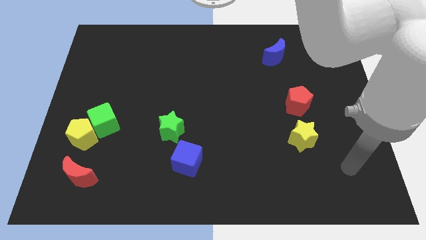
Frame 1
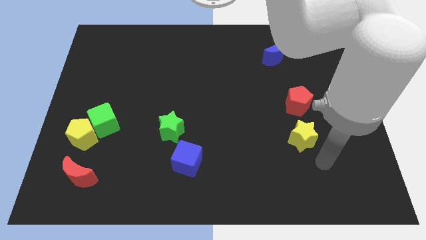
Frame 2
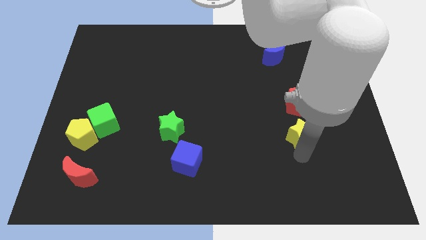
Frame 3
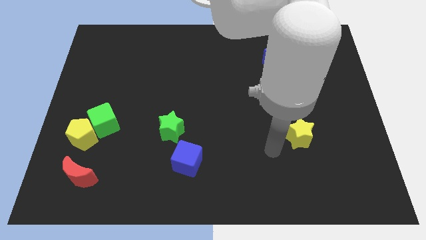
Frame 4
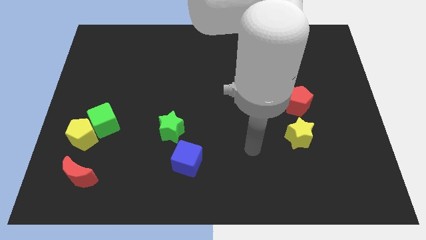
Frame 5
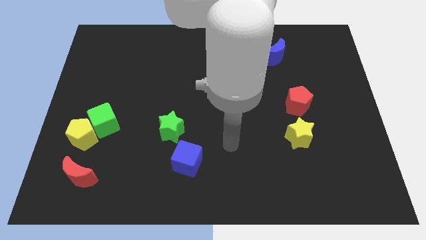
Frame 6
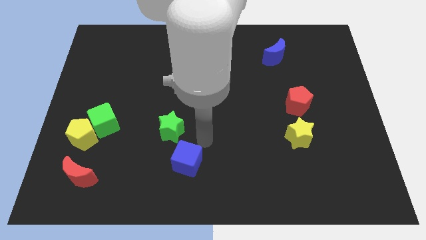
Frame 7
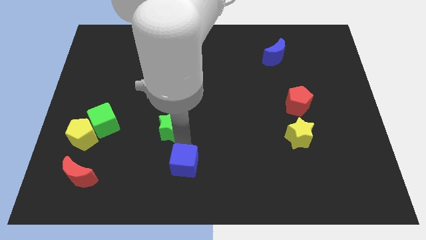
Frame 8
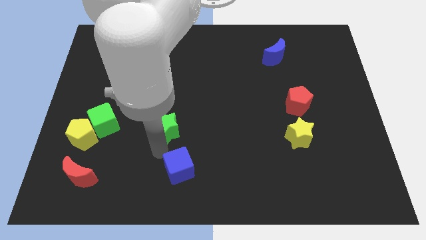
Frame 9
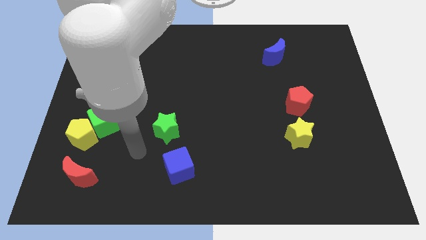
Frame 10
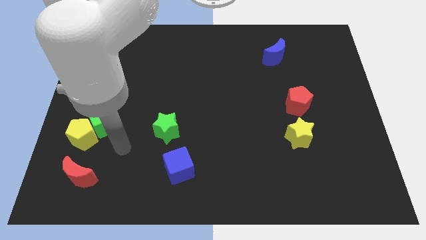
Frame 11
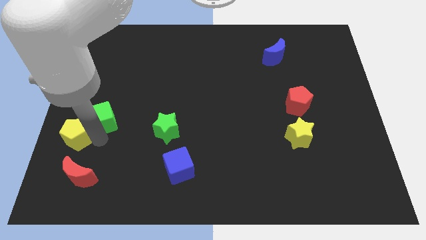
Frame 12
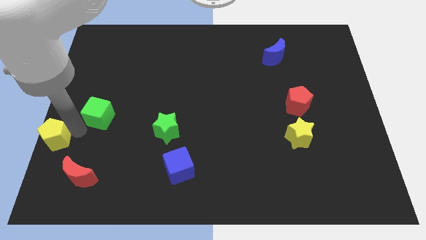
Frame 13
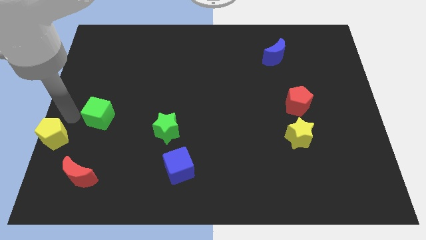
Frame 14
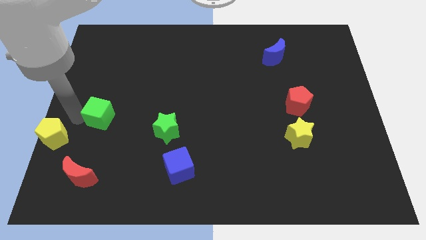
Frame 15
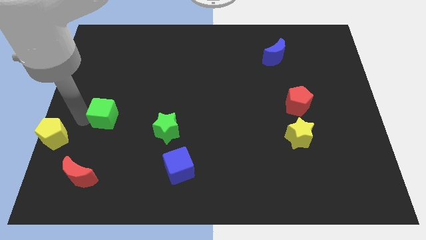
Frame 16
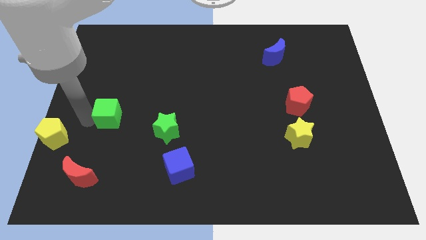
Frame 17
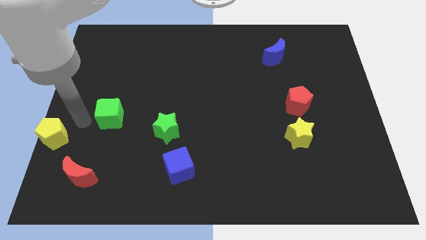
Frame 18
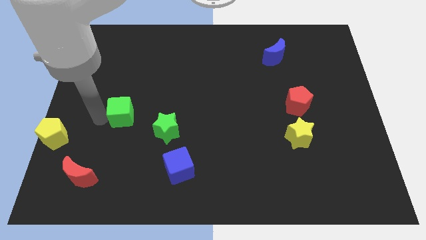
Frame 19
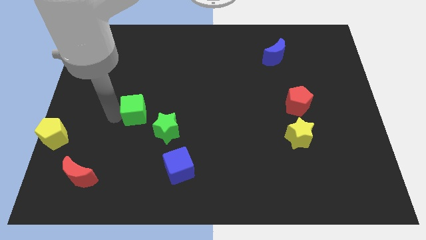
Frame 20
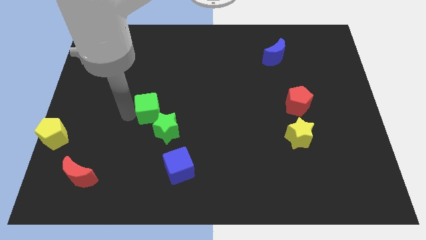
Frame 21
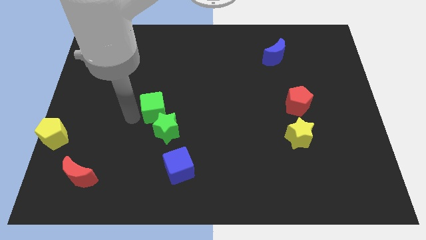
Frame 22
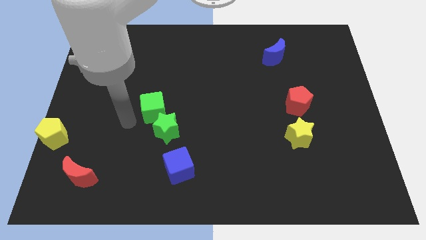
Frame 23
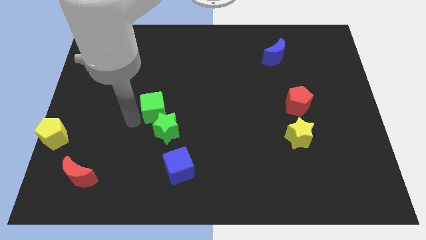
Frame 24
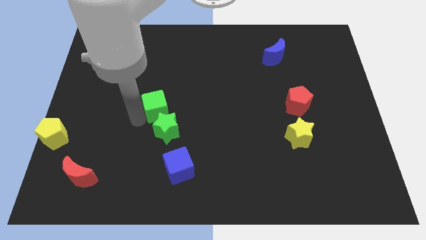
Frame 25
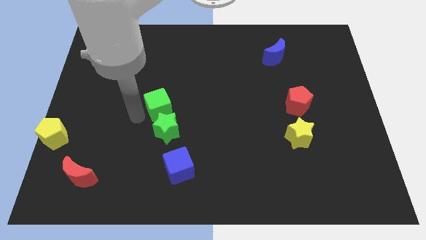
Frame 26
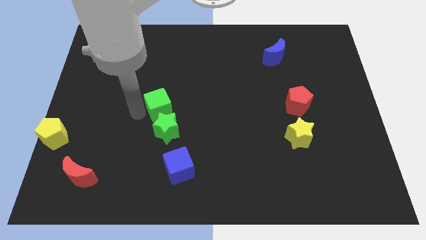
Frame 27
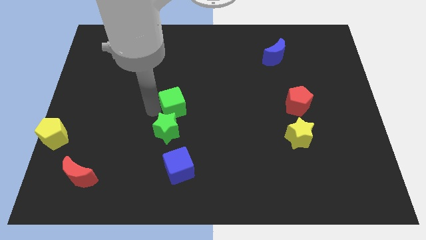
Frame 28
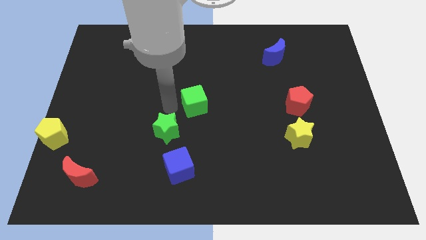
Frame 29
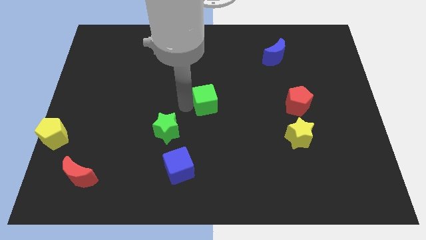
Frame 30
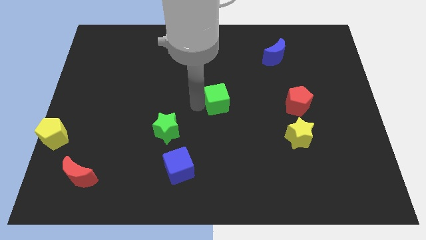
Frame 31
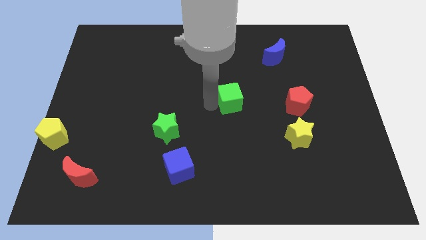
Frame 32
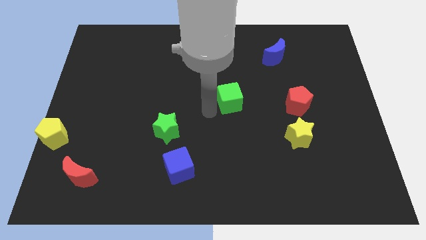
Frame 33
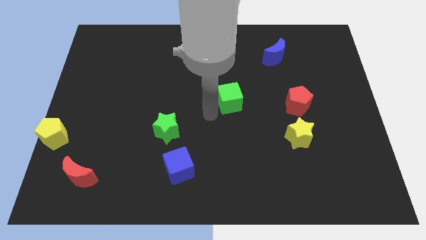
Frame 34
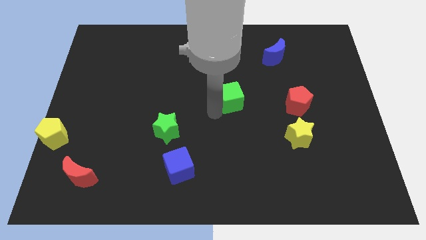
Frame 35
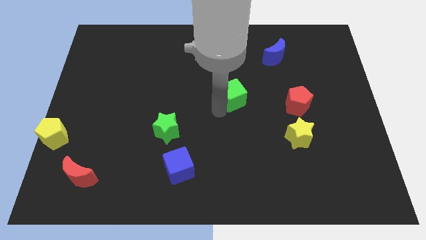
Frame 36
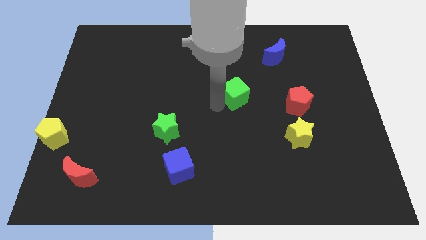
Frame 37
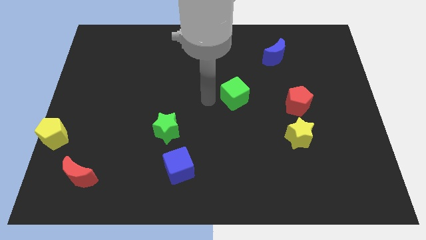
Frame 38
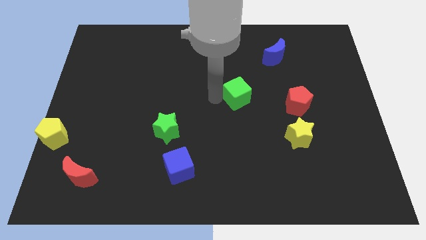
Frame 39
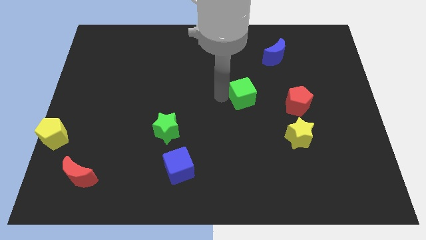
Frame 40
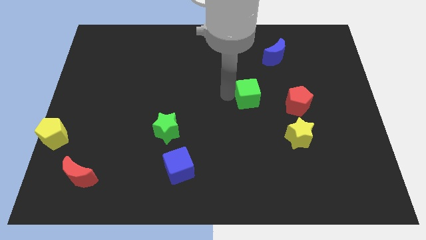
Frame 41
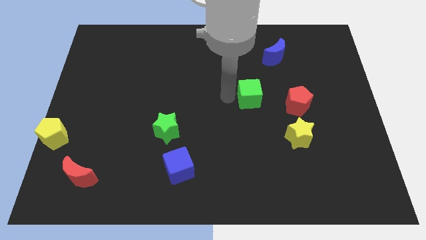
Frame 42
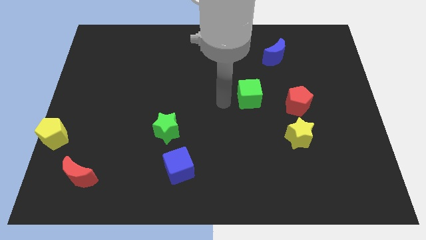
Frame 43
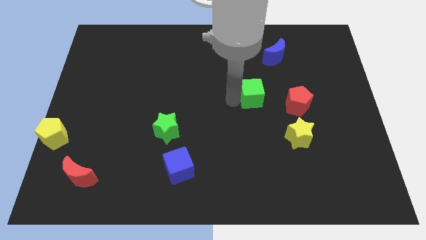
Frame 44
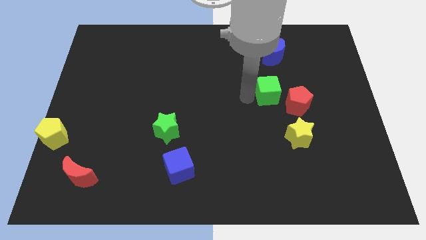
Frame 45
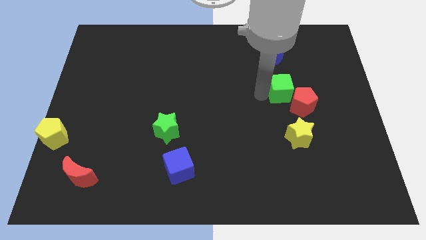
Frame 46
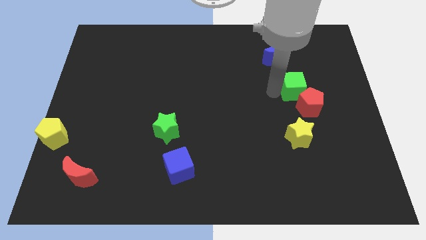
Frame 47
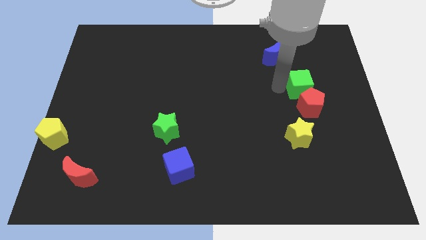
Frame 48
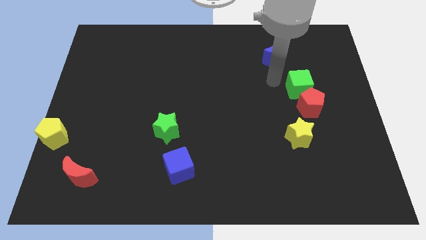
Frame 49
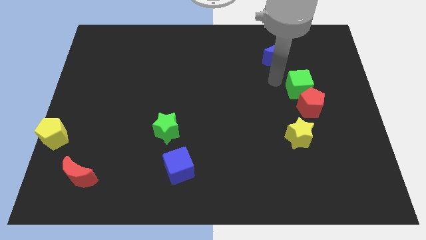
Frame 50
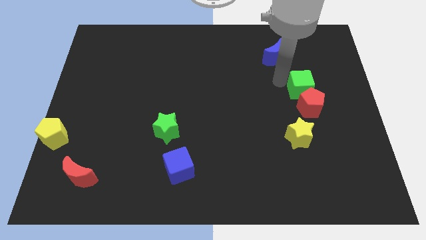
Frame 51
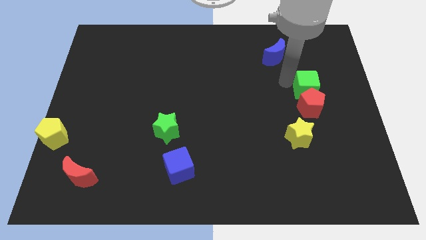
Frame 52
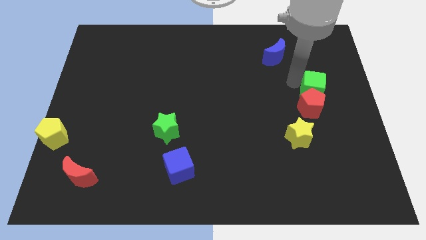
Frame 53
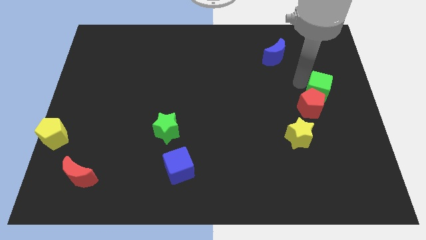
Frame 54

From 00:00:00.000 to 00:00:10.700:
put the green cube to the right side

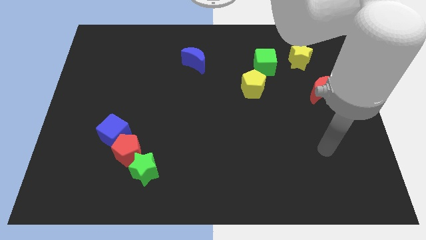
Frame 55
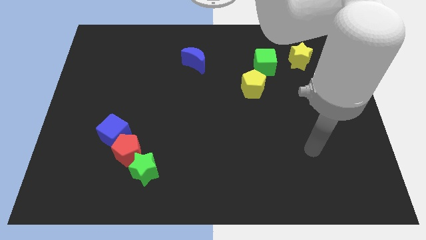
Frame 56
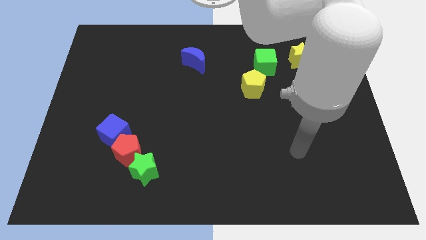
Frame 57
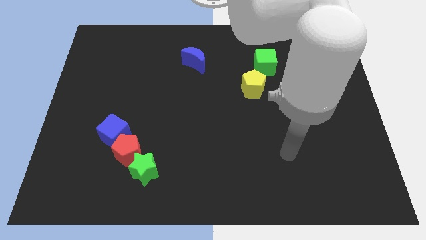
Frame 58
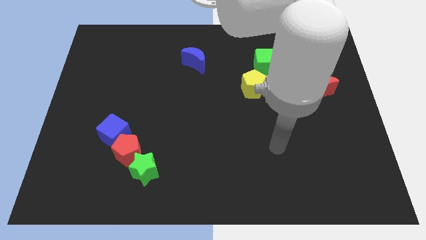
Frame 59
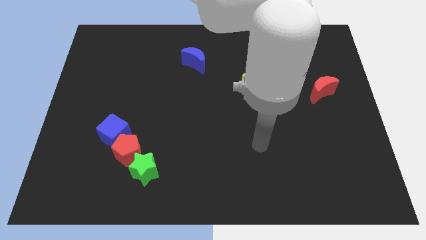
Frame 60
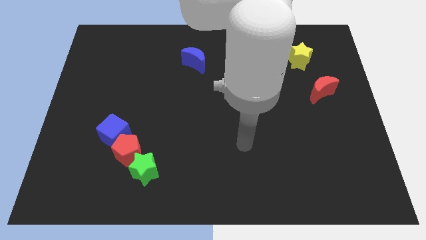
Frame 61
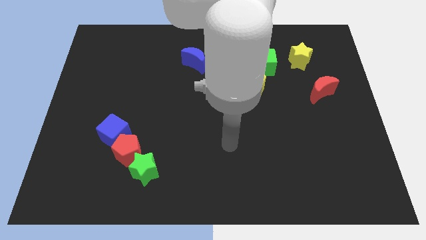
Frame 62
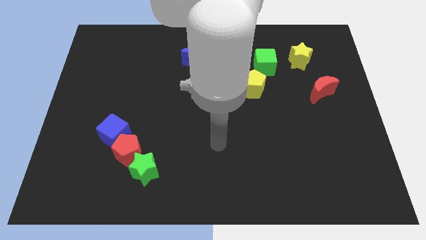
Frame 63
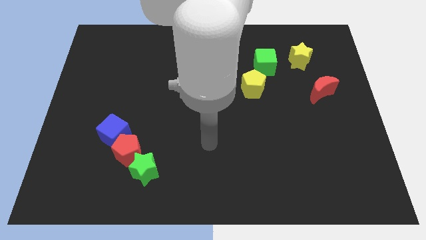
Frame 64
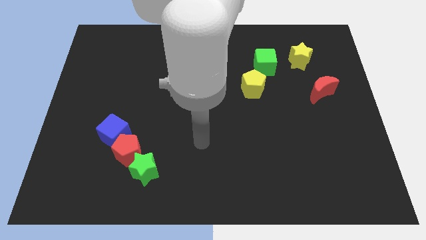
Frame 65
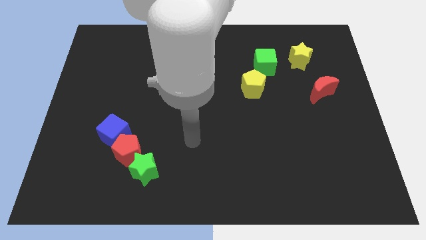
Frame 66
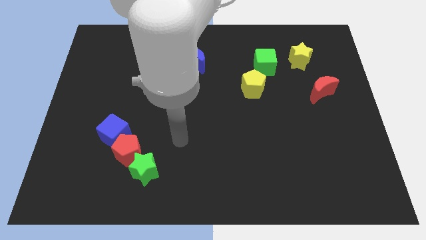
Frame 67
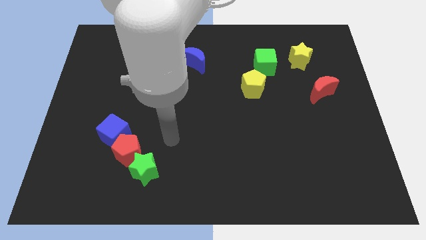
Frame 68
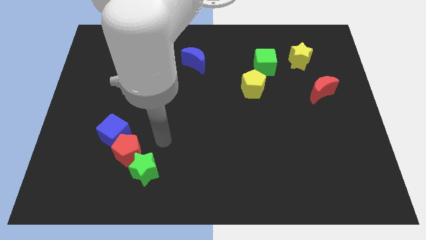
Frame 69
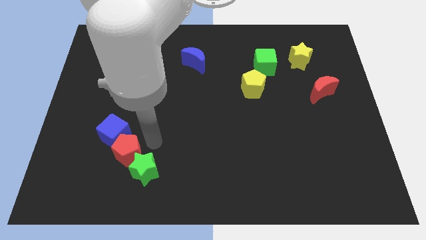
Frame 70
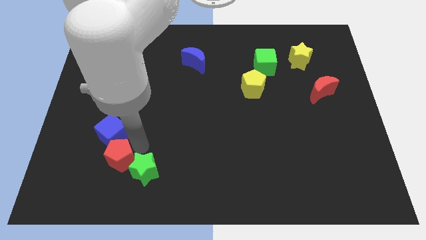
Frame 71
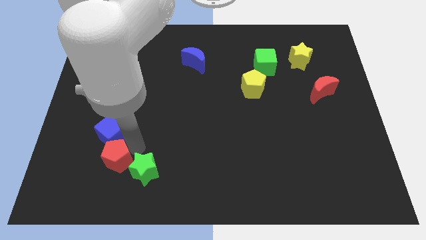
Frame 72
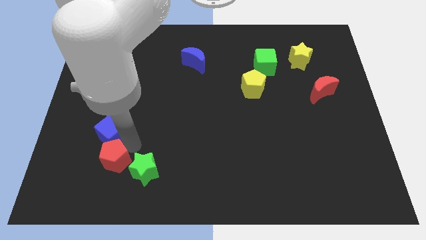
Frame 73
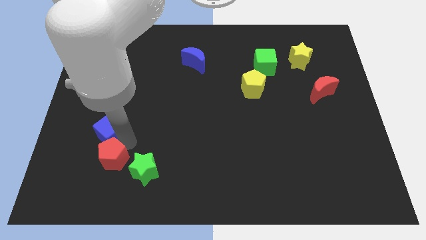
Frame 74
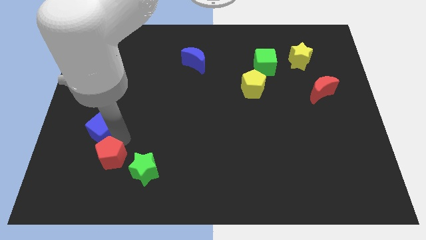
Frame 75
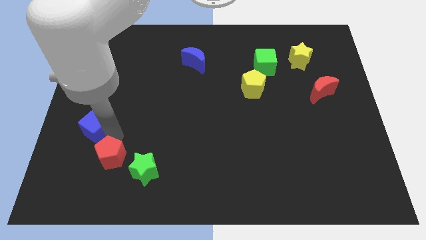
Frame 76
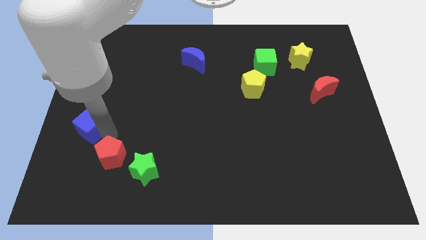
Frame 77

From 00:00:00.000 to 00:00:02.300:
move the blue cube to the center left
